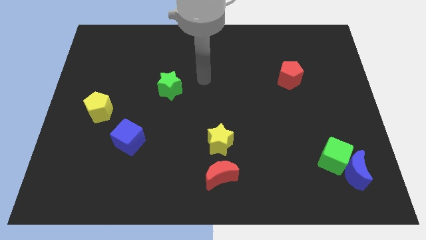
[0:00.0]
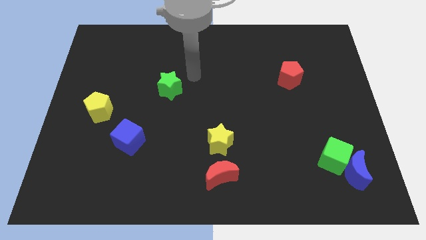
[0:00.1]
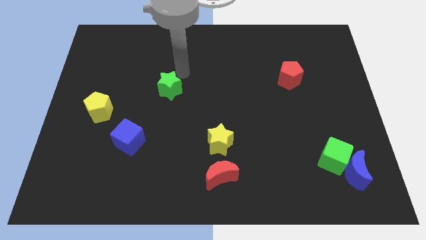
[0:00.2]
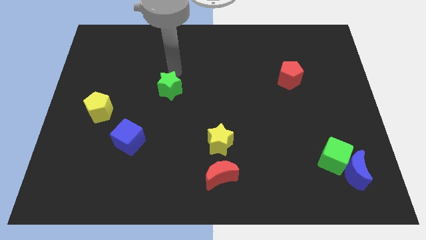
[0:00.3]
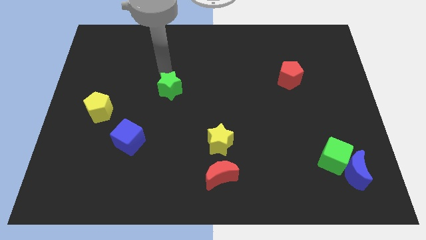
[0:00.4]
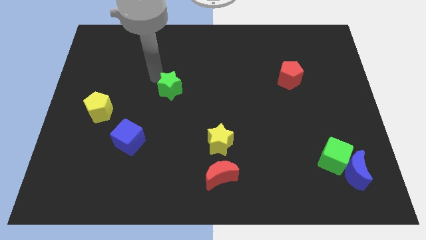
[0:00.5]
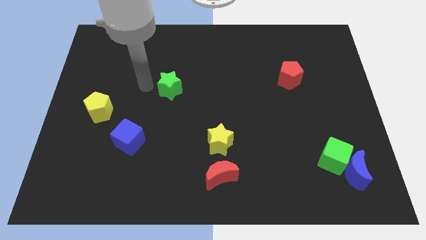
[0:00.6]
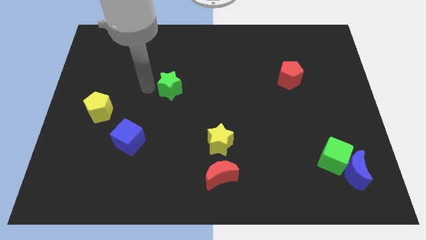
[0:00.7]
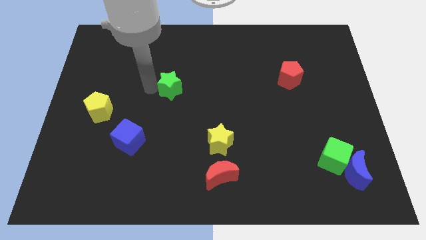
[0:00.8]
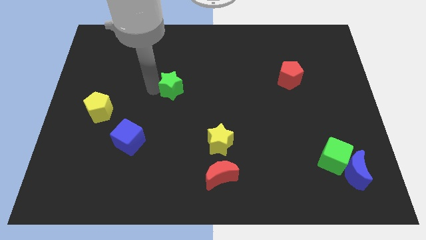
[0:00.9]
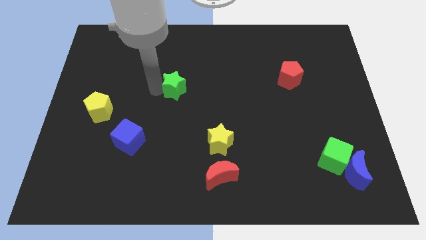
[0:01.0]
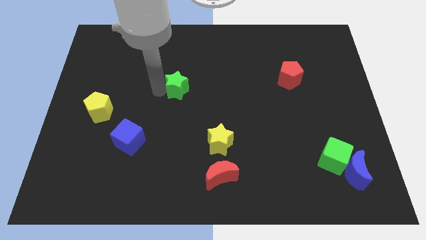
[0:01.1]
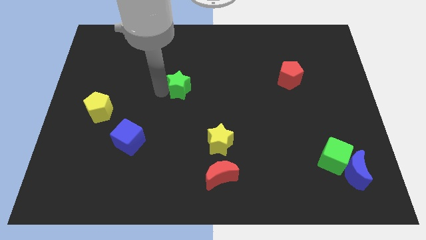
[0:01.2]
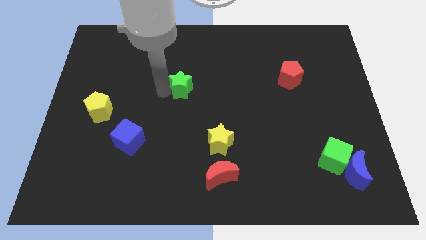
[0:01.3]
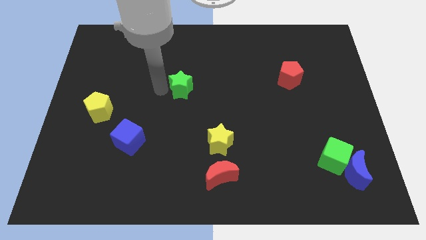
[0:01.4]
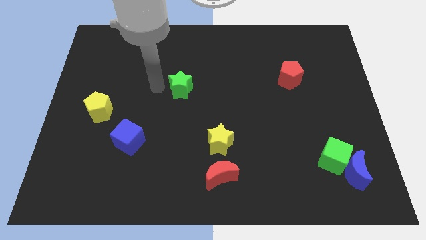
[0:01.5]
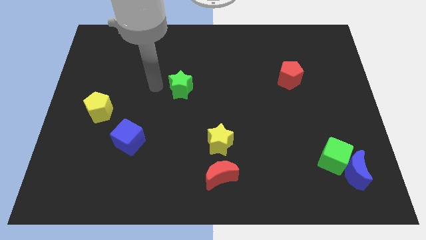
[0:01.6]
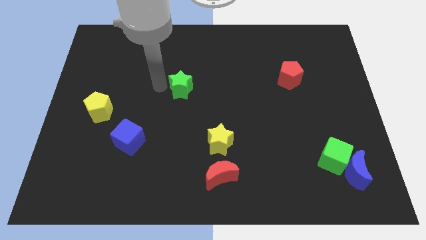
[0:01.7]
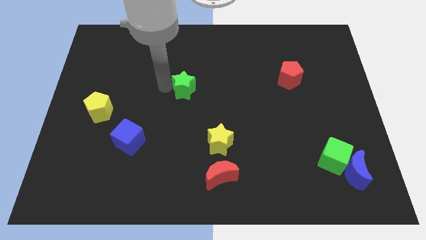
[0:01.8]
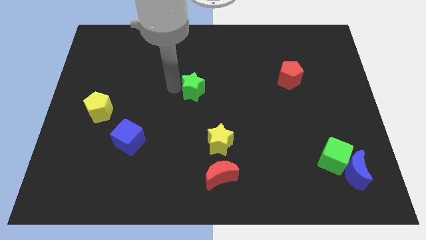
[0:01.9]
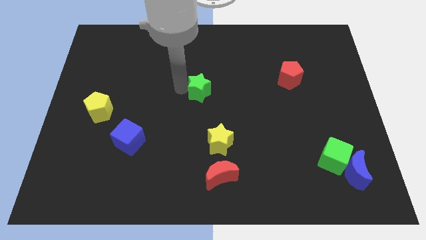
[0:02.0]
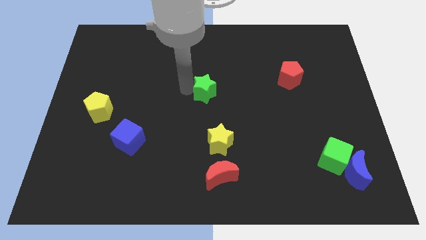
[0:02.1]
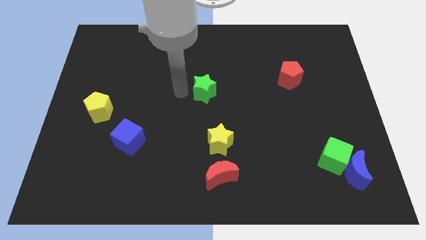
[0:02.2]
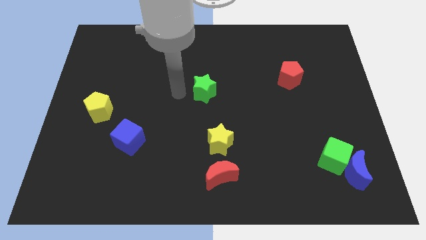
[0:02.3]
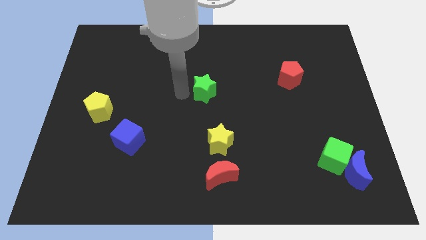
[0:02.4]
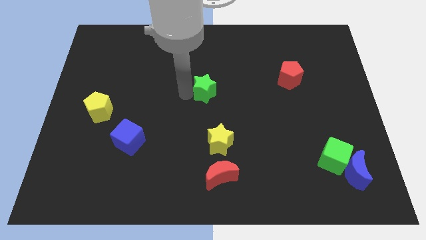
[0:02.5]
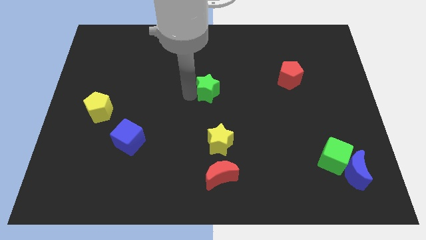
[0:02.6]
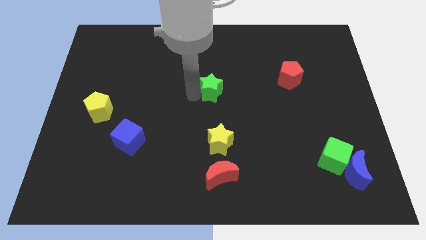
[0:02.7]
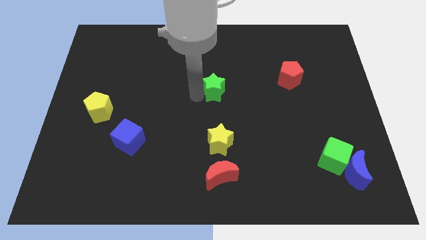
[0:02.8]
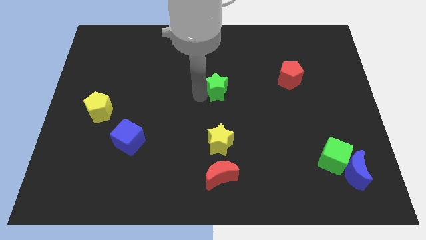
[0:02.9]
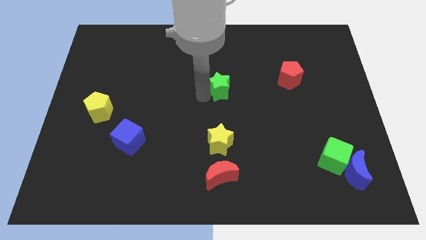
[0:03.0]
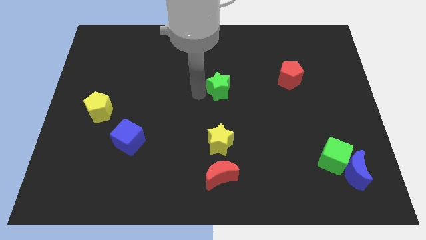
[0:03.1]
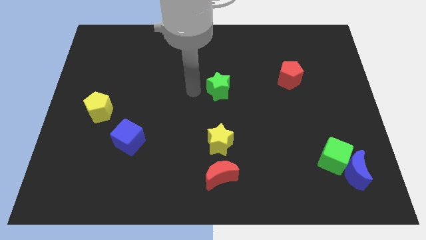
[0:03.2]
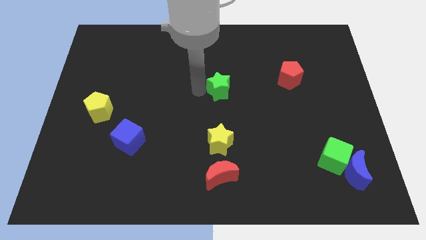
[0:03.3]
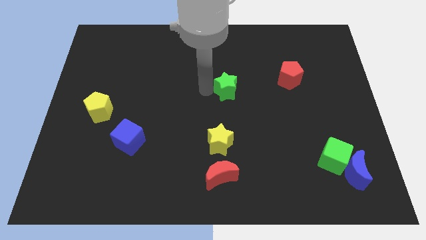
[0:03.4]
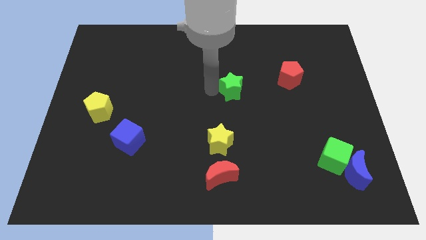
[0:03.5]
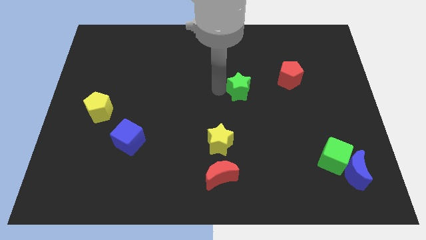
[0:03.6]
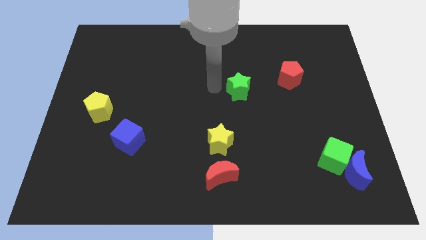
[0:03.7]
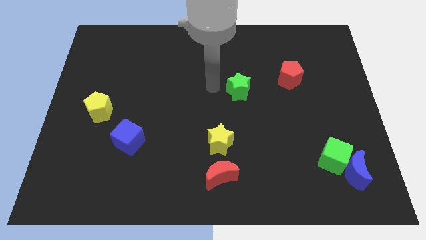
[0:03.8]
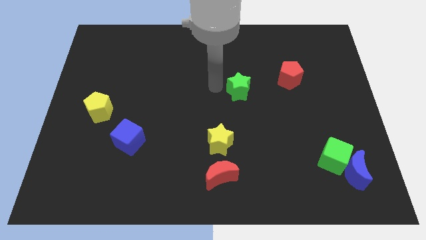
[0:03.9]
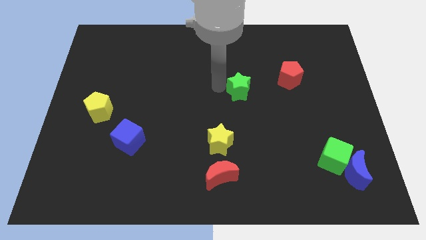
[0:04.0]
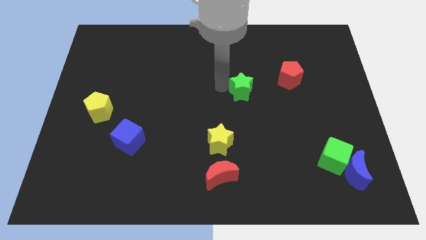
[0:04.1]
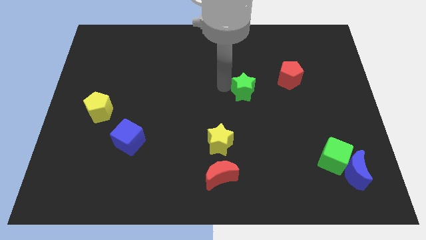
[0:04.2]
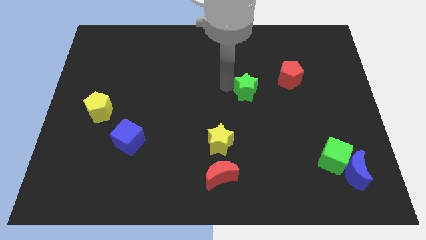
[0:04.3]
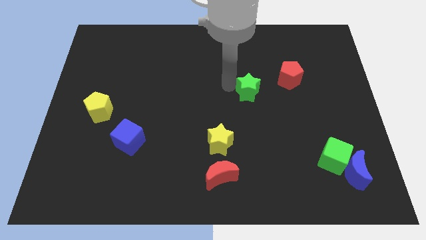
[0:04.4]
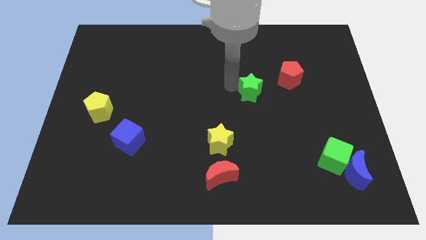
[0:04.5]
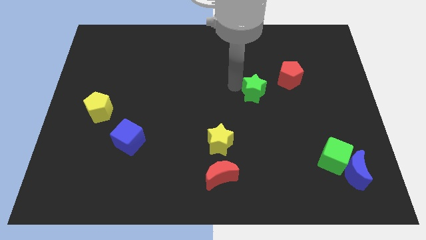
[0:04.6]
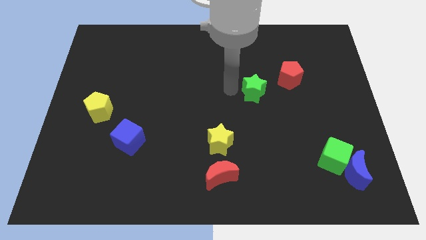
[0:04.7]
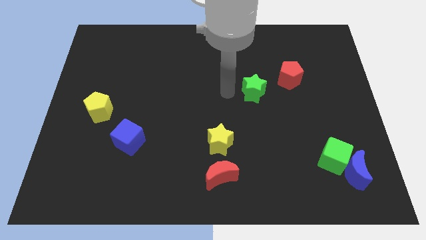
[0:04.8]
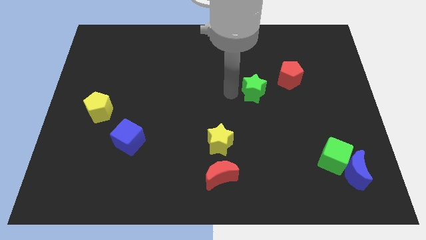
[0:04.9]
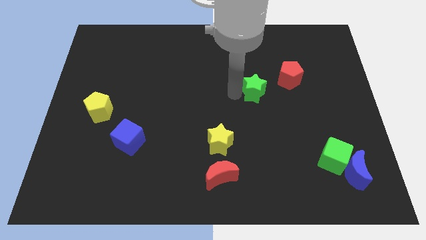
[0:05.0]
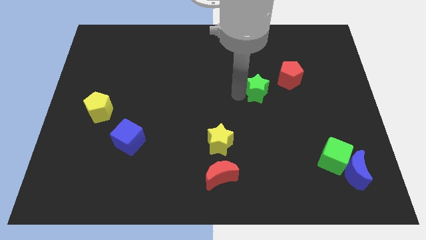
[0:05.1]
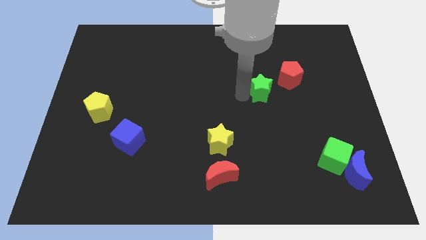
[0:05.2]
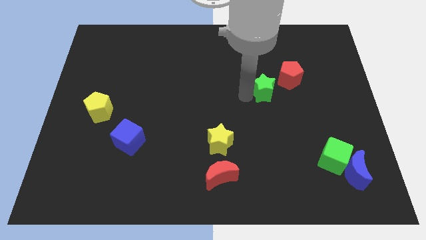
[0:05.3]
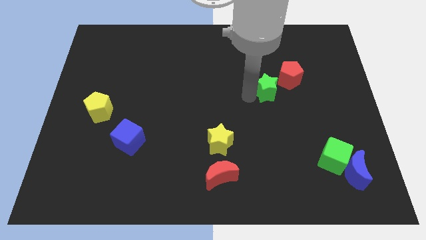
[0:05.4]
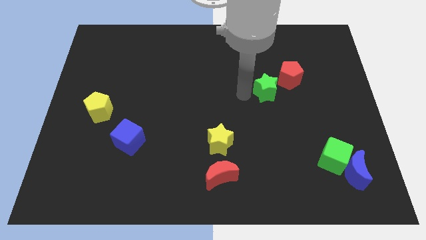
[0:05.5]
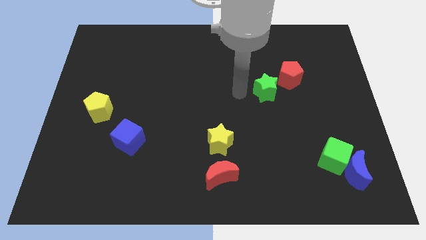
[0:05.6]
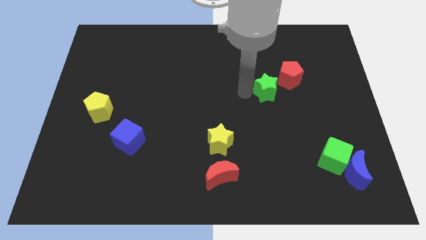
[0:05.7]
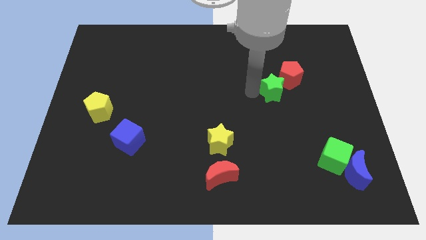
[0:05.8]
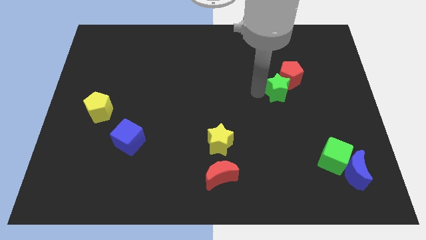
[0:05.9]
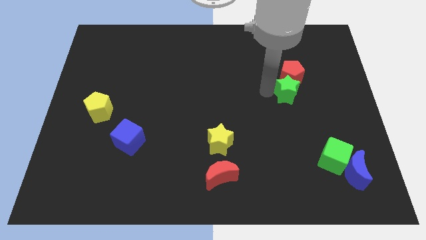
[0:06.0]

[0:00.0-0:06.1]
slide the green star to the bottom right side of the red pentagon

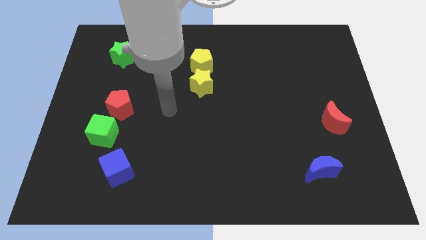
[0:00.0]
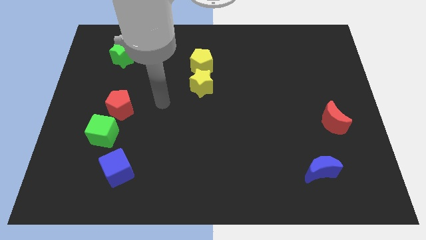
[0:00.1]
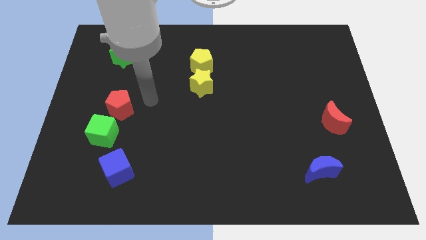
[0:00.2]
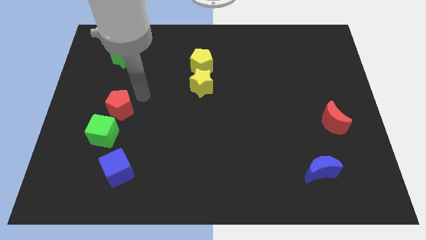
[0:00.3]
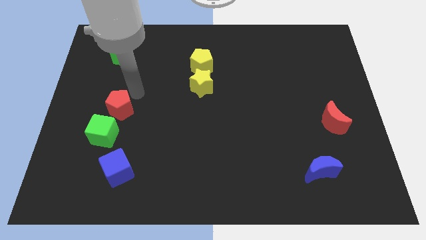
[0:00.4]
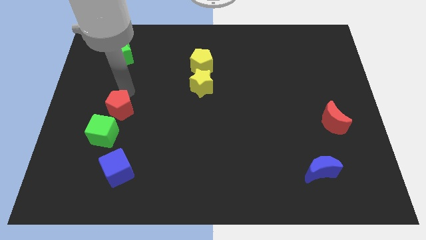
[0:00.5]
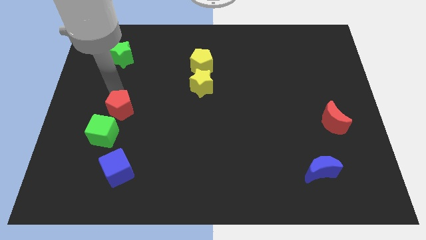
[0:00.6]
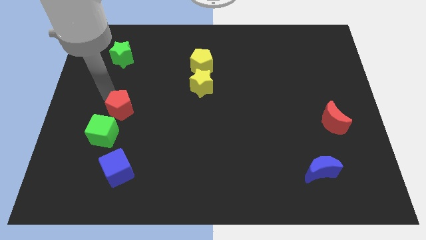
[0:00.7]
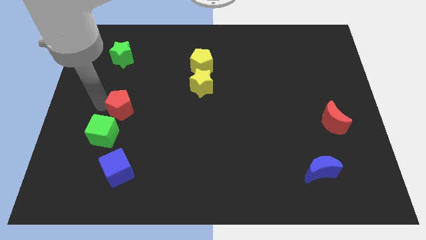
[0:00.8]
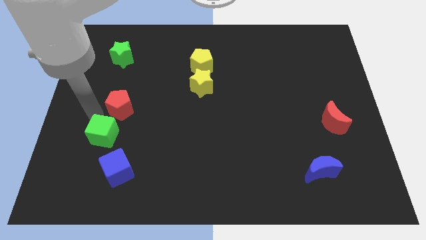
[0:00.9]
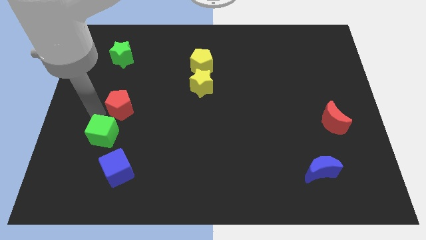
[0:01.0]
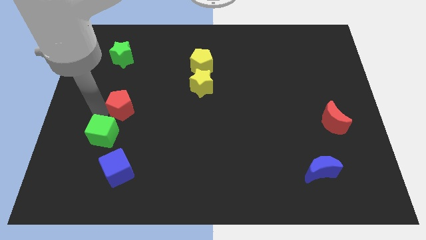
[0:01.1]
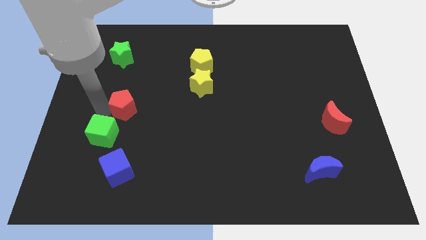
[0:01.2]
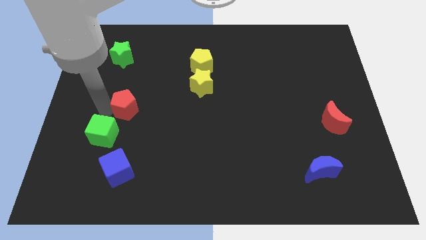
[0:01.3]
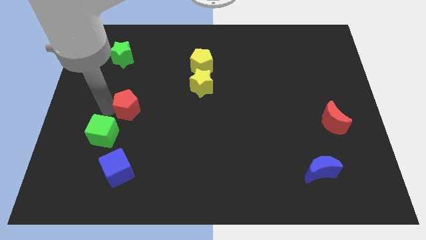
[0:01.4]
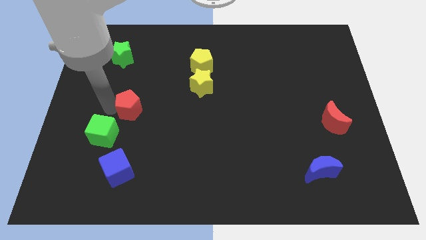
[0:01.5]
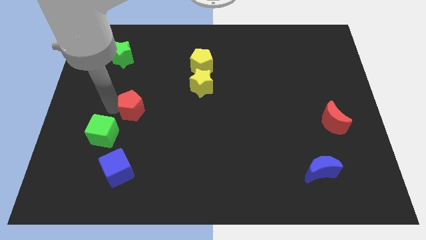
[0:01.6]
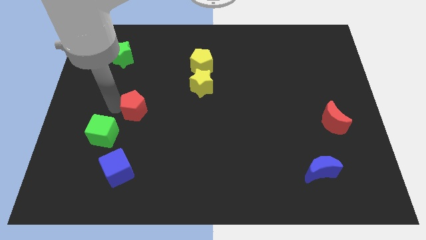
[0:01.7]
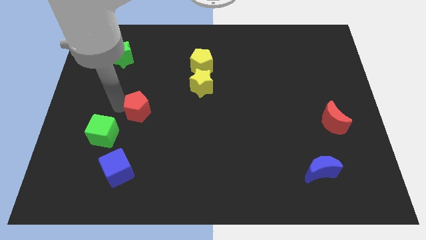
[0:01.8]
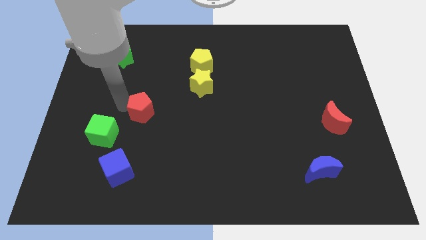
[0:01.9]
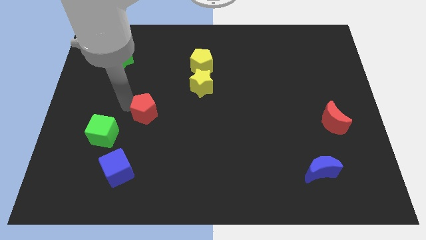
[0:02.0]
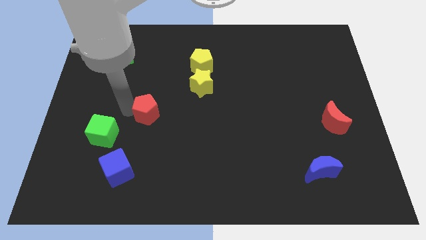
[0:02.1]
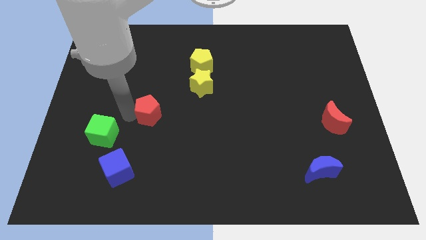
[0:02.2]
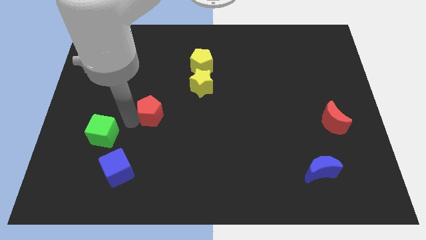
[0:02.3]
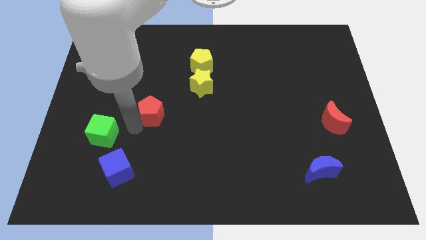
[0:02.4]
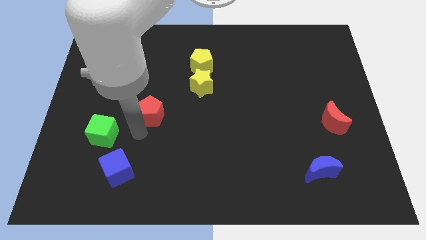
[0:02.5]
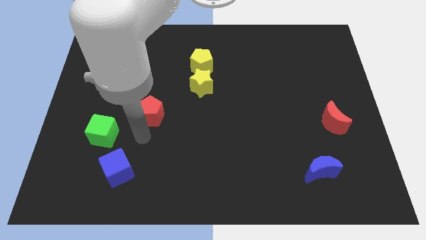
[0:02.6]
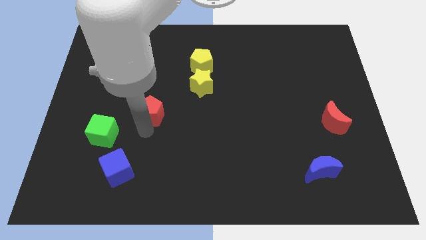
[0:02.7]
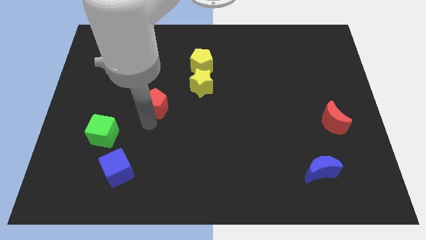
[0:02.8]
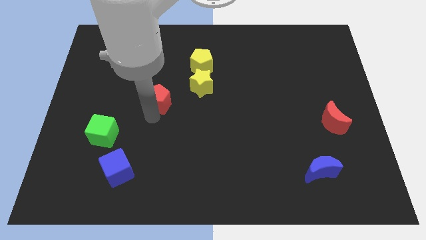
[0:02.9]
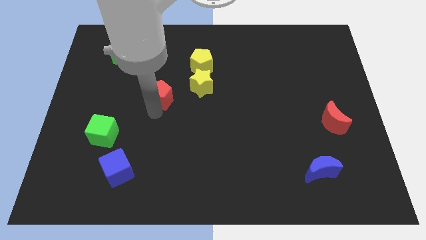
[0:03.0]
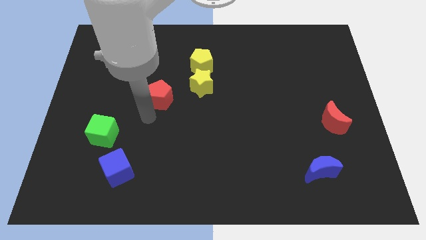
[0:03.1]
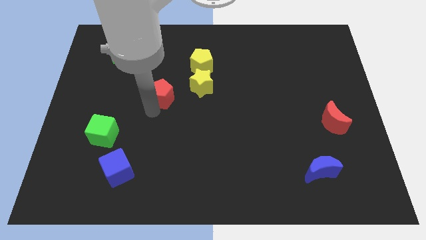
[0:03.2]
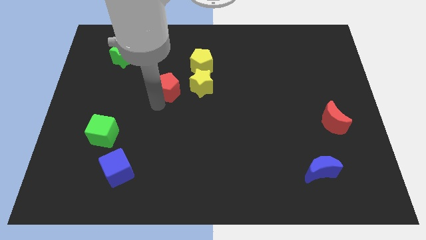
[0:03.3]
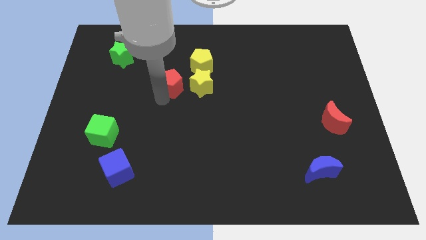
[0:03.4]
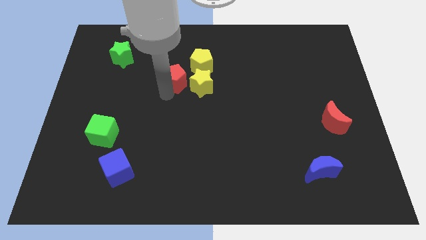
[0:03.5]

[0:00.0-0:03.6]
slide the red pentagon diagonally up and to the left of the yellow star
